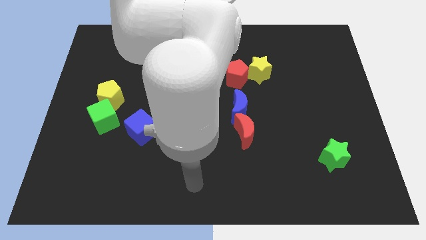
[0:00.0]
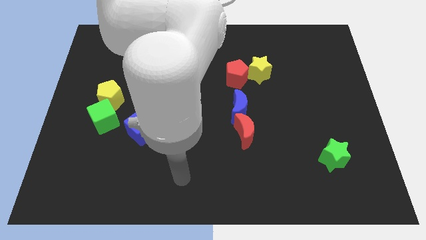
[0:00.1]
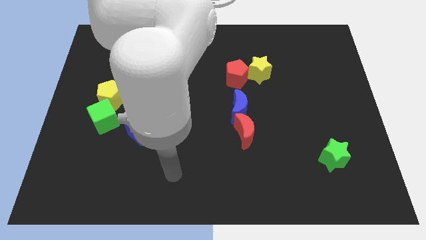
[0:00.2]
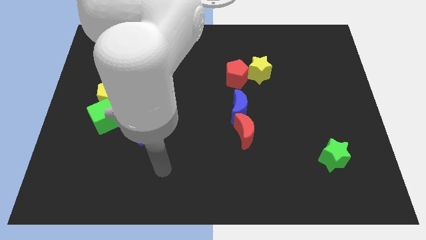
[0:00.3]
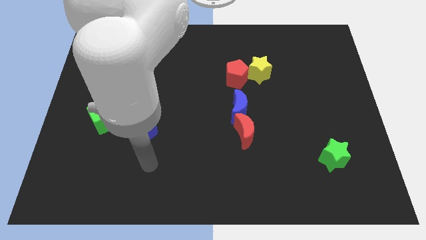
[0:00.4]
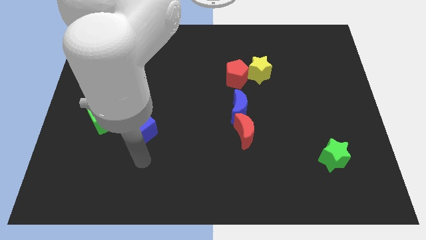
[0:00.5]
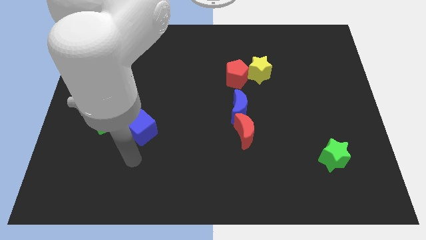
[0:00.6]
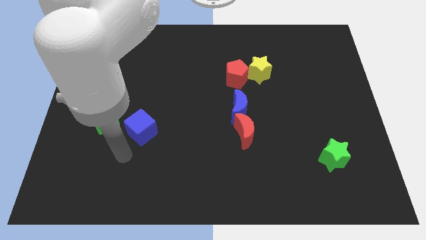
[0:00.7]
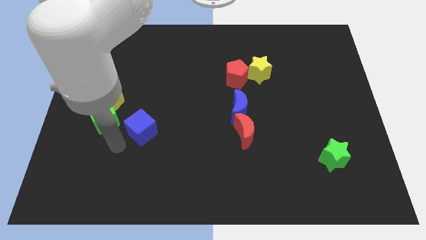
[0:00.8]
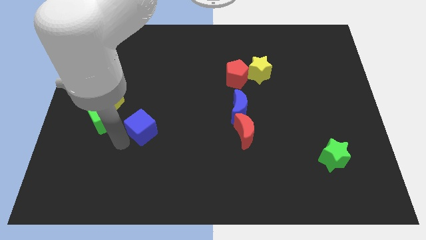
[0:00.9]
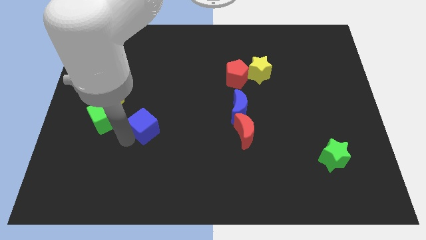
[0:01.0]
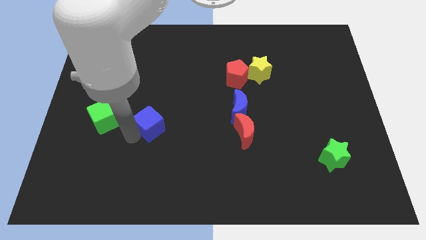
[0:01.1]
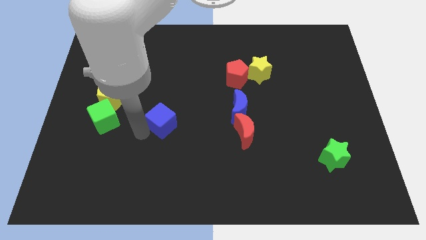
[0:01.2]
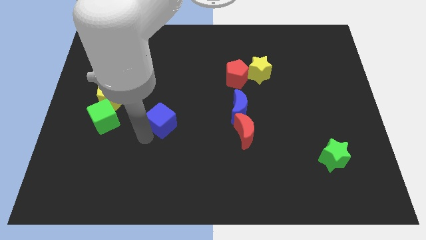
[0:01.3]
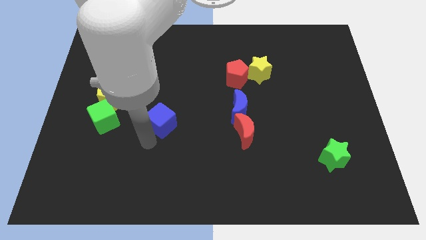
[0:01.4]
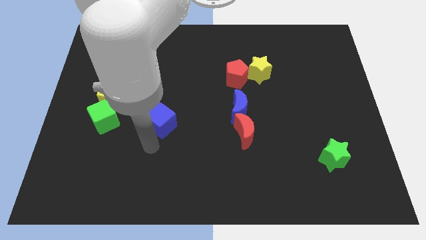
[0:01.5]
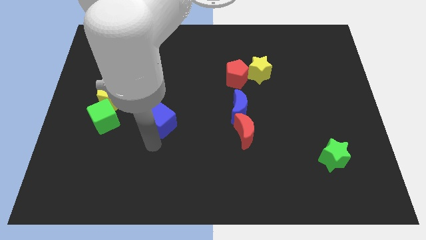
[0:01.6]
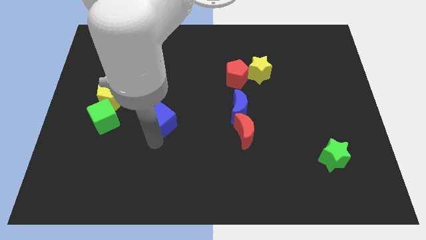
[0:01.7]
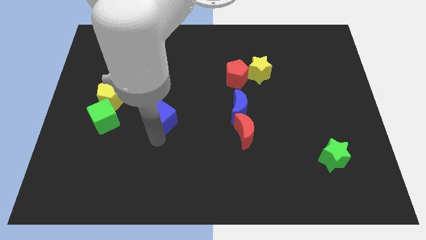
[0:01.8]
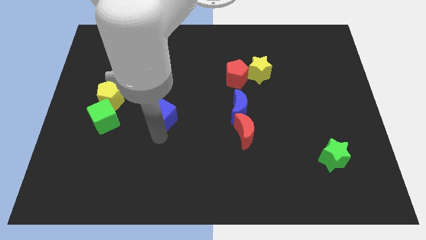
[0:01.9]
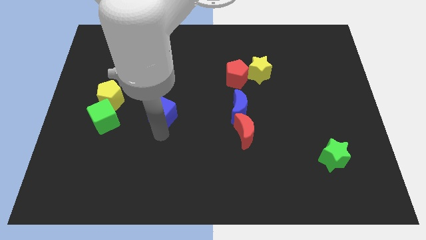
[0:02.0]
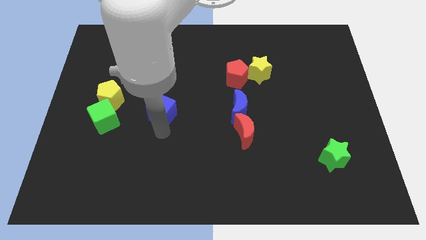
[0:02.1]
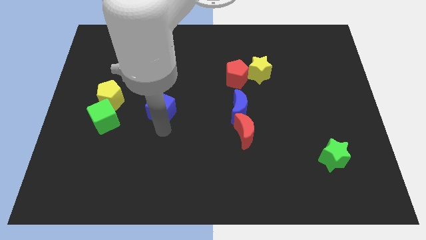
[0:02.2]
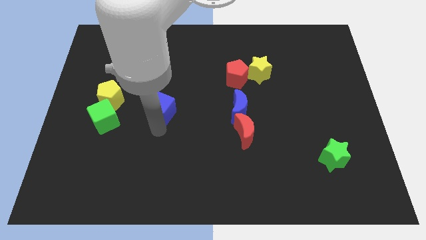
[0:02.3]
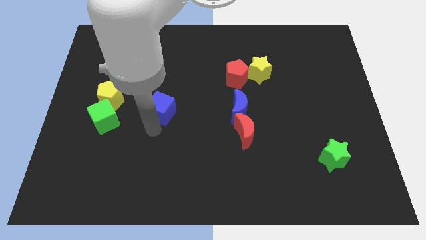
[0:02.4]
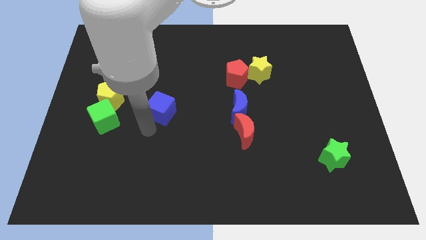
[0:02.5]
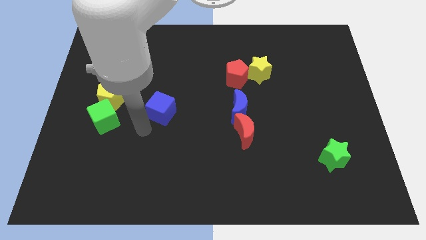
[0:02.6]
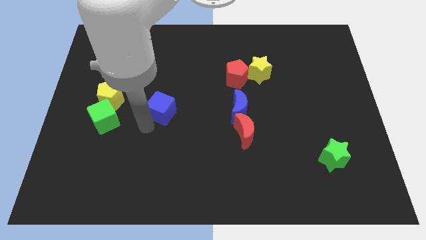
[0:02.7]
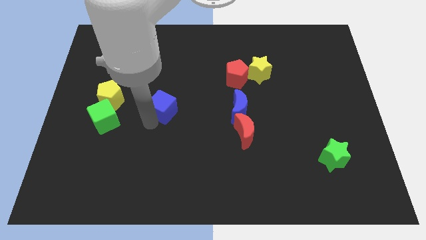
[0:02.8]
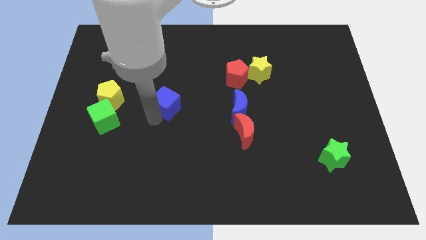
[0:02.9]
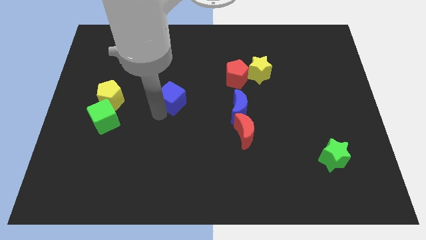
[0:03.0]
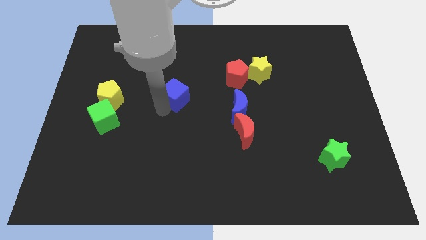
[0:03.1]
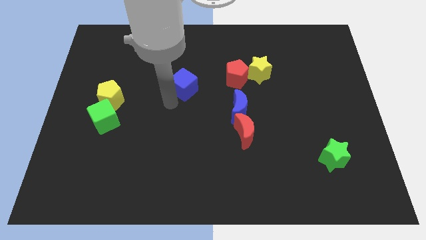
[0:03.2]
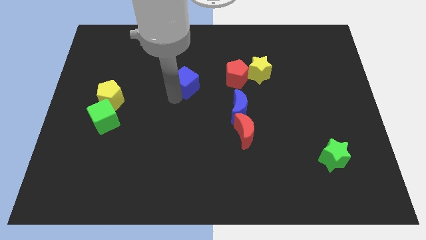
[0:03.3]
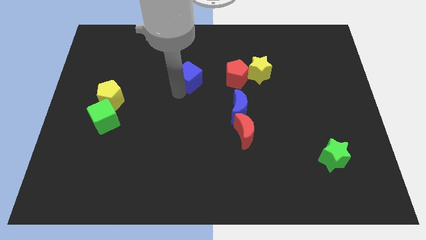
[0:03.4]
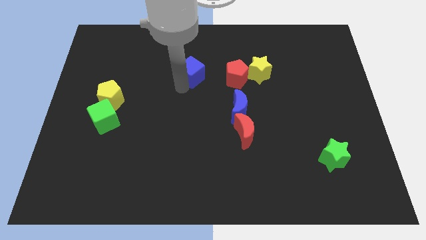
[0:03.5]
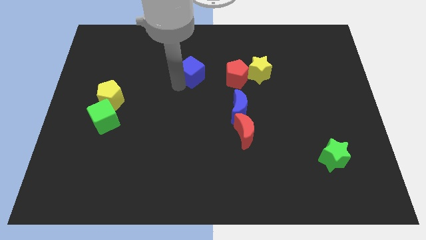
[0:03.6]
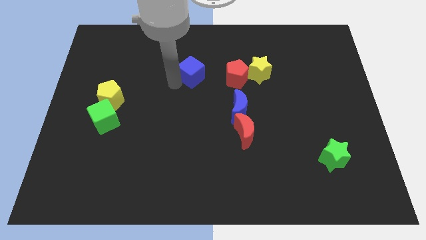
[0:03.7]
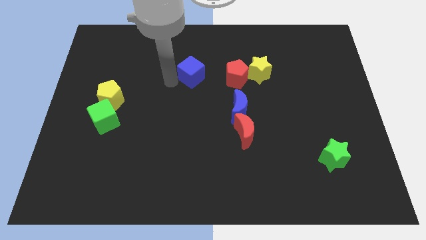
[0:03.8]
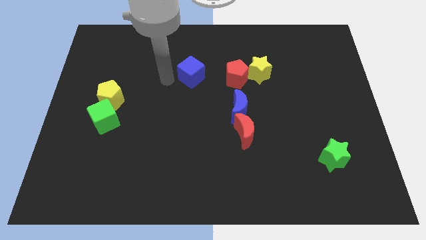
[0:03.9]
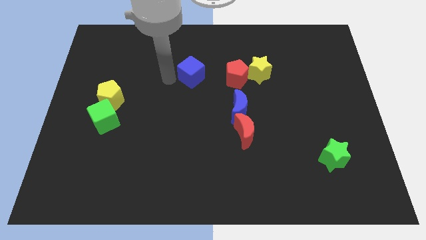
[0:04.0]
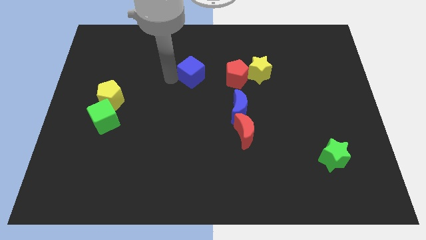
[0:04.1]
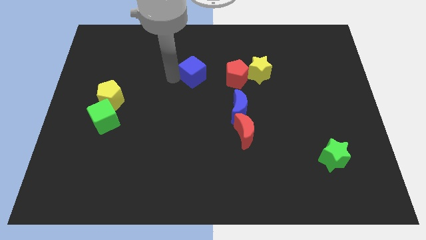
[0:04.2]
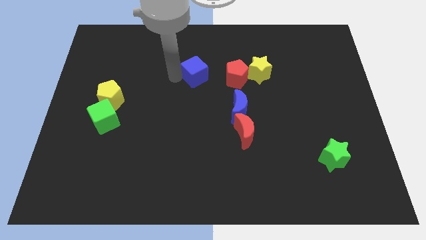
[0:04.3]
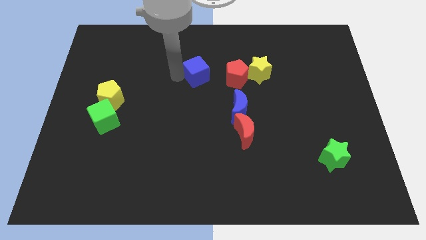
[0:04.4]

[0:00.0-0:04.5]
slide the blue cube up and right

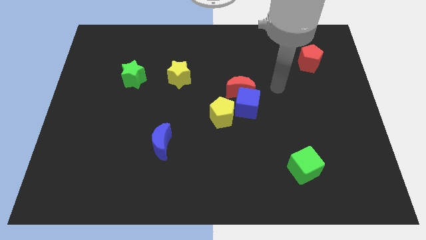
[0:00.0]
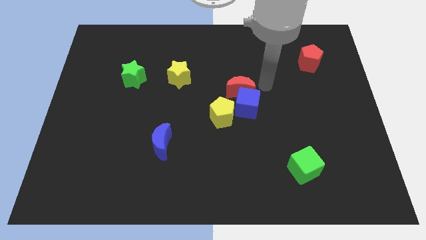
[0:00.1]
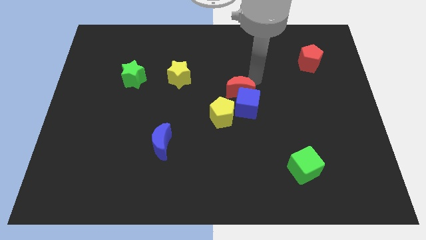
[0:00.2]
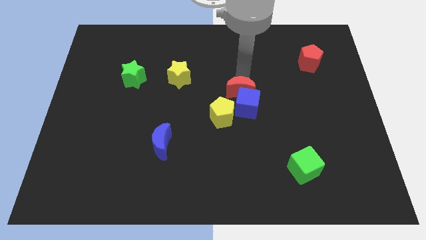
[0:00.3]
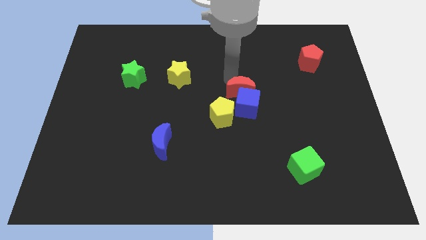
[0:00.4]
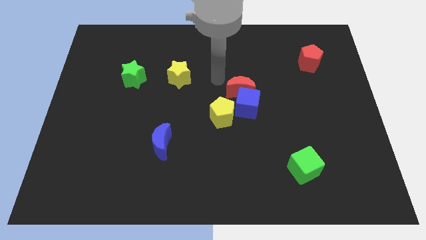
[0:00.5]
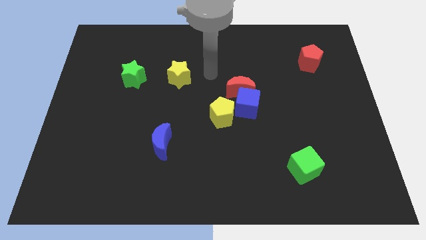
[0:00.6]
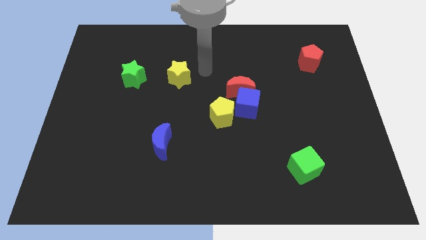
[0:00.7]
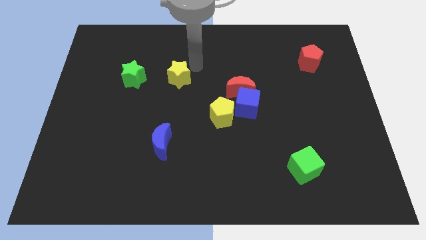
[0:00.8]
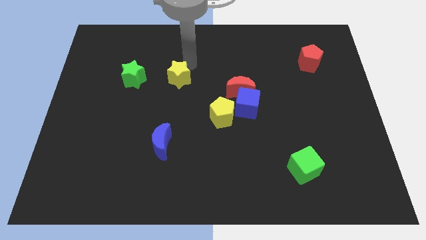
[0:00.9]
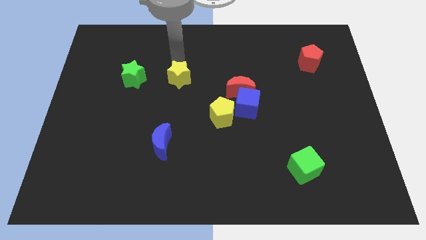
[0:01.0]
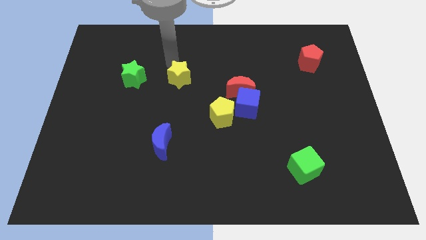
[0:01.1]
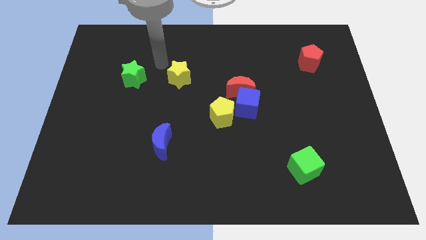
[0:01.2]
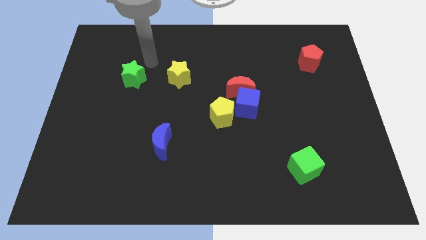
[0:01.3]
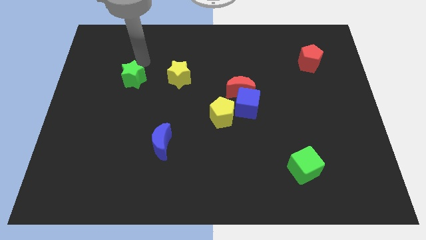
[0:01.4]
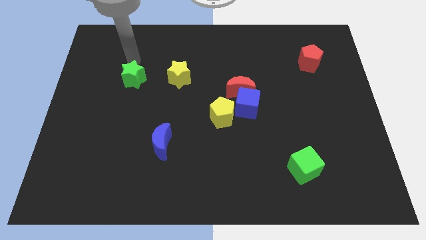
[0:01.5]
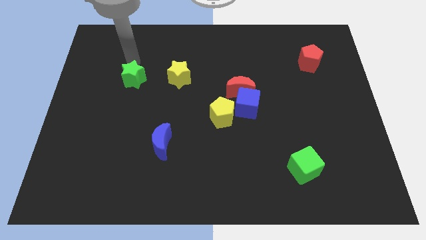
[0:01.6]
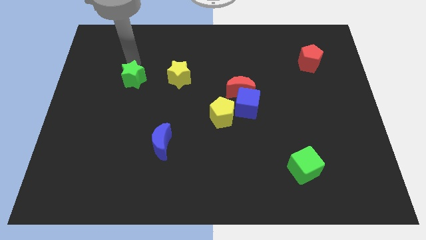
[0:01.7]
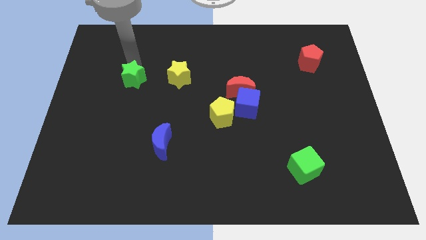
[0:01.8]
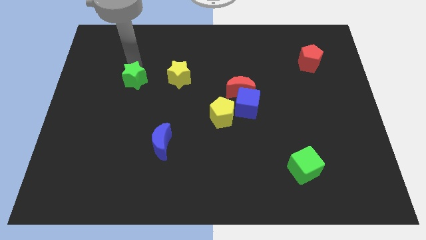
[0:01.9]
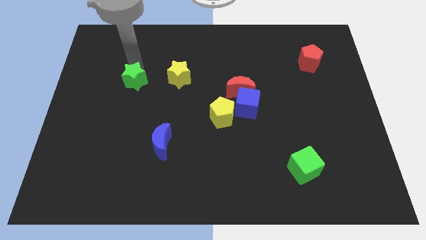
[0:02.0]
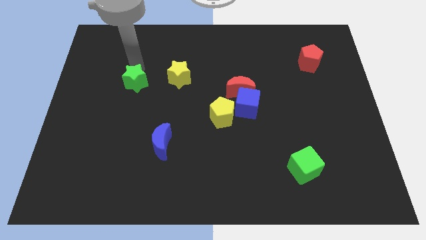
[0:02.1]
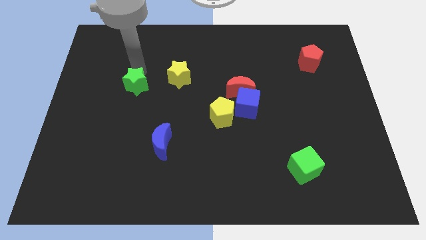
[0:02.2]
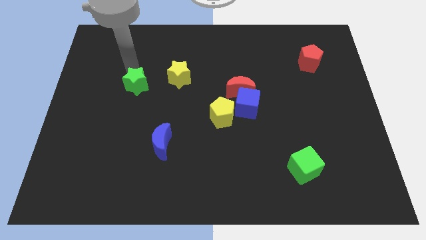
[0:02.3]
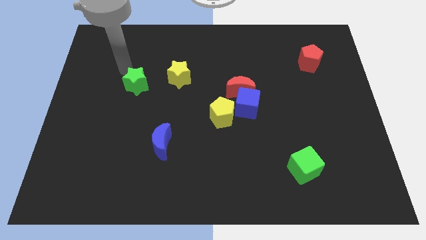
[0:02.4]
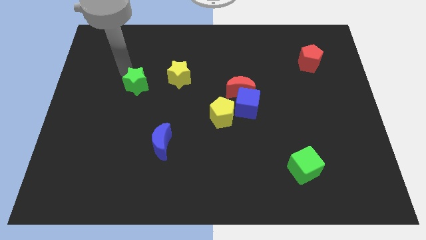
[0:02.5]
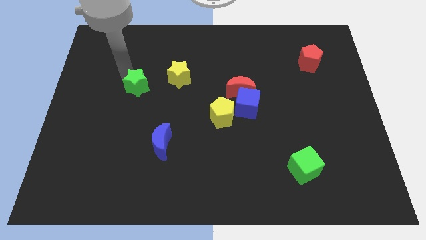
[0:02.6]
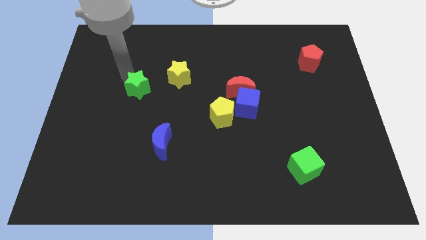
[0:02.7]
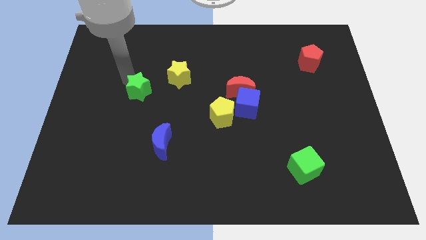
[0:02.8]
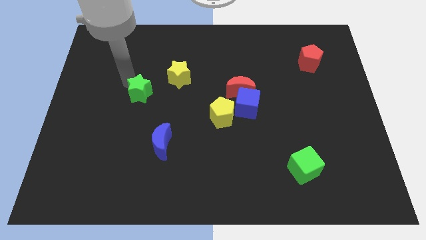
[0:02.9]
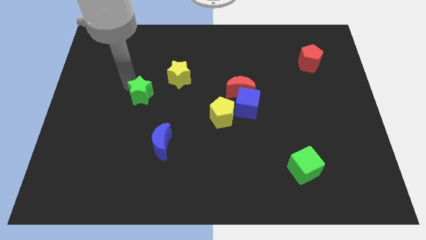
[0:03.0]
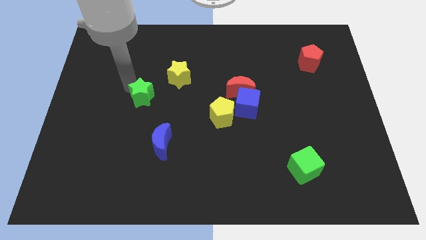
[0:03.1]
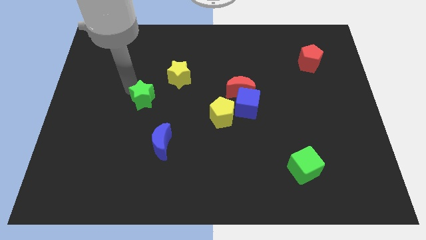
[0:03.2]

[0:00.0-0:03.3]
move the green star slightly downwards and to the right

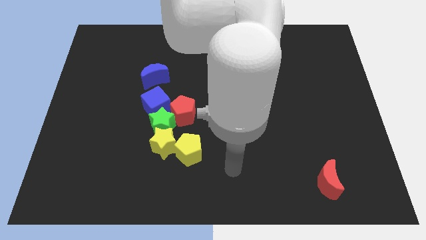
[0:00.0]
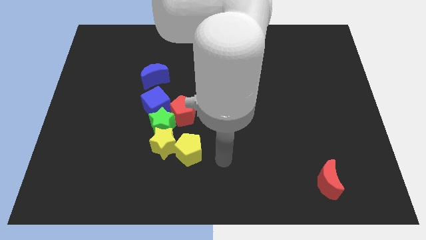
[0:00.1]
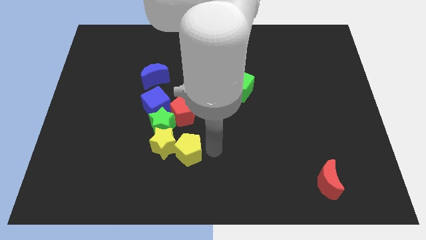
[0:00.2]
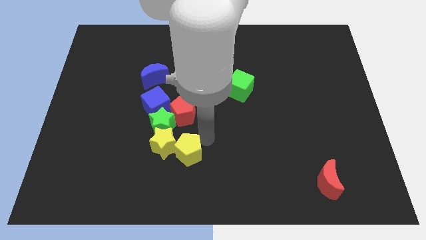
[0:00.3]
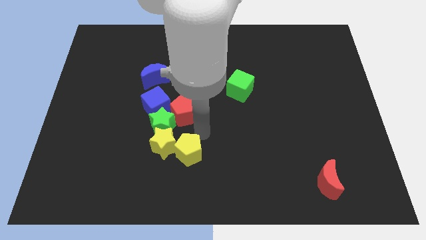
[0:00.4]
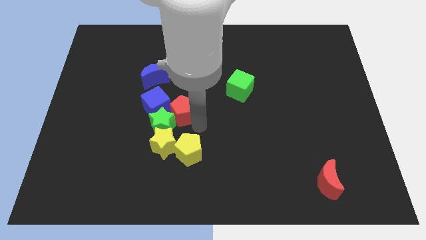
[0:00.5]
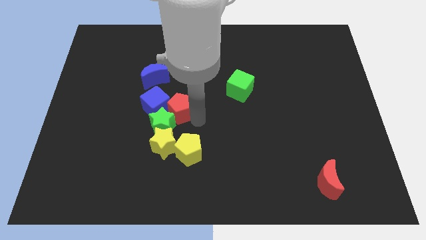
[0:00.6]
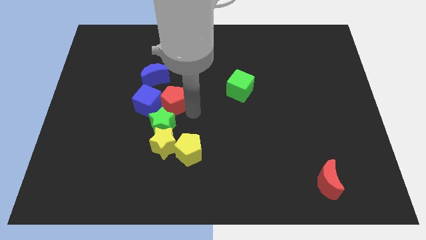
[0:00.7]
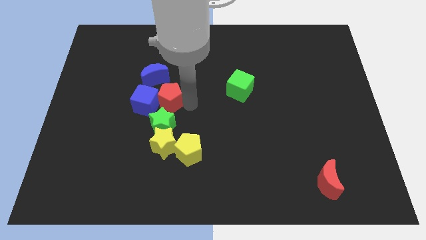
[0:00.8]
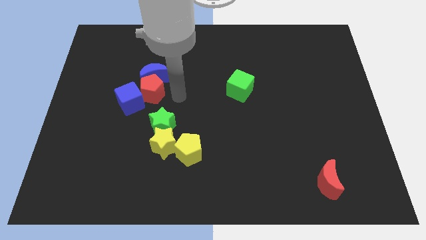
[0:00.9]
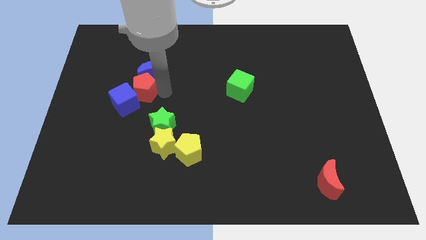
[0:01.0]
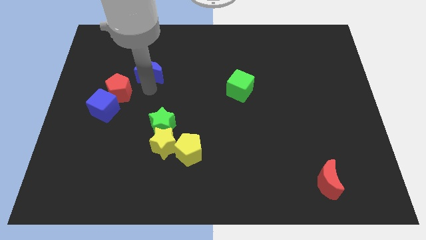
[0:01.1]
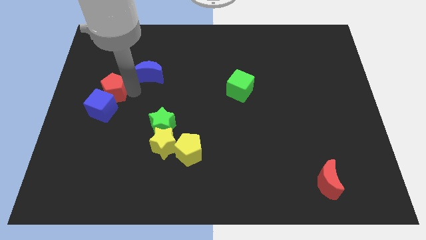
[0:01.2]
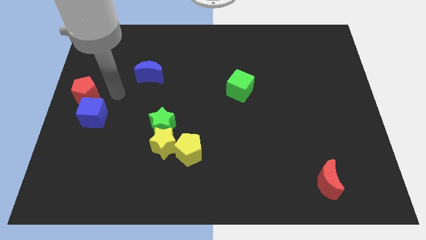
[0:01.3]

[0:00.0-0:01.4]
slightly push the blue cube diagonally downwards and to the left
